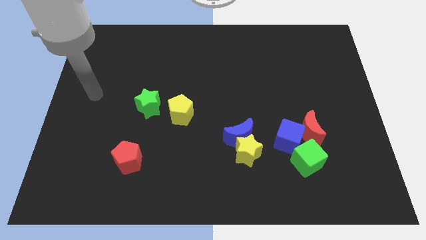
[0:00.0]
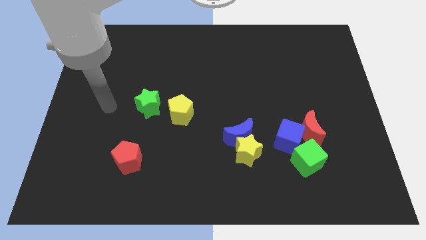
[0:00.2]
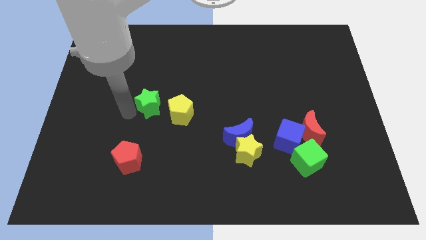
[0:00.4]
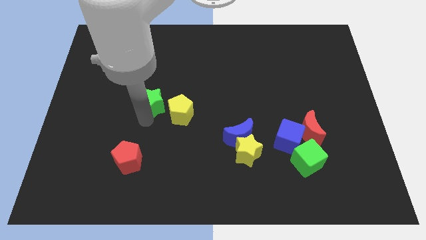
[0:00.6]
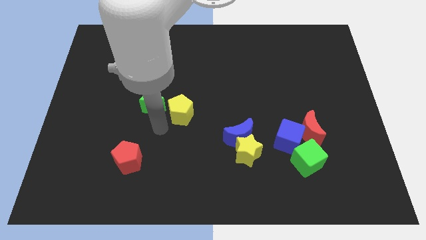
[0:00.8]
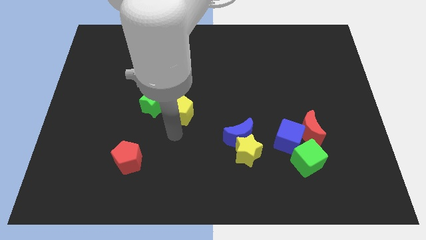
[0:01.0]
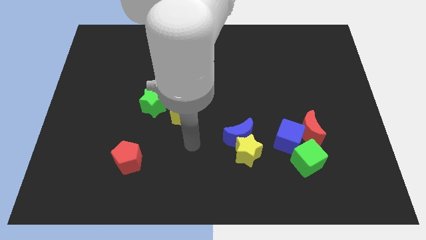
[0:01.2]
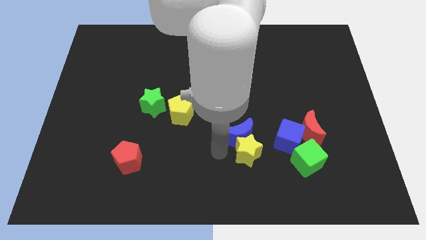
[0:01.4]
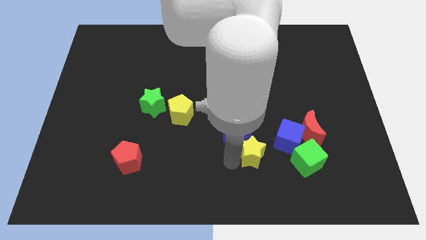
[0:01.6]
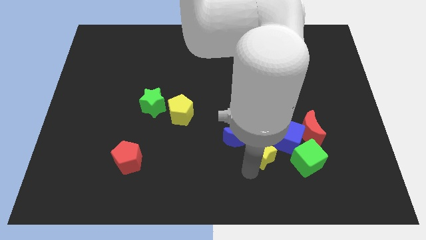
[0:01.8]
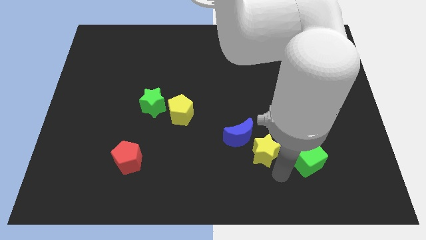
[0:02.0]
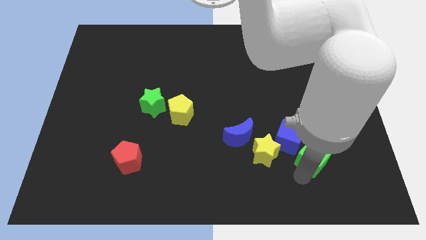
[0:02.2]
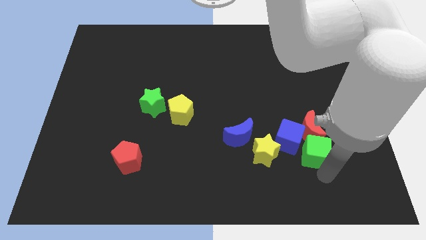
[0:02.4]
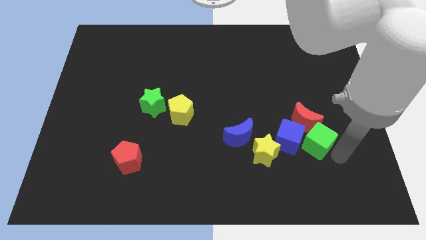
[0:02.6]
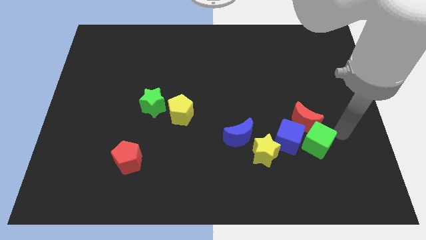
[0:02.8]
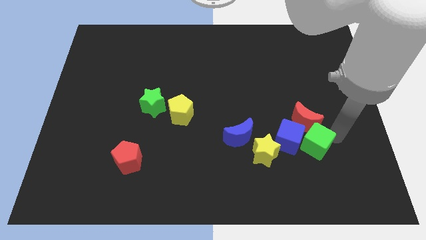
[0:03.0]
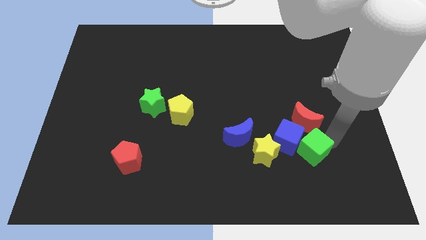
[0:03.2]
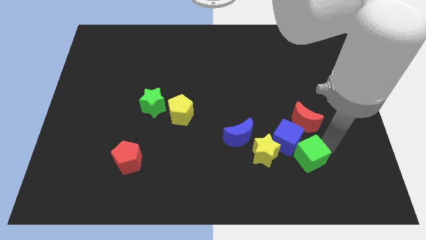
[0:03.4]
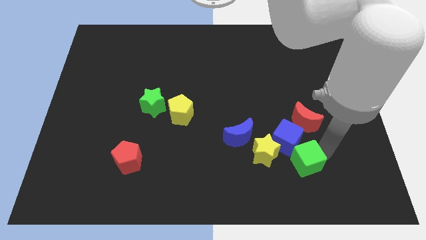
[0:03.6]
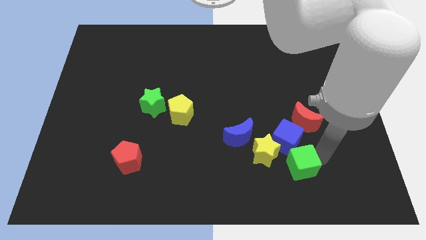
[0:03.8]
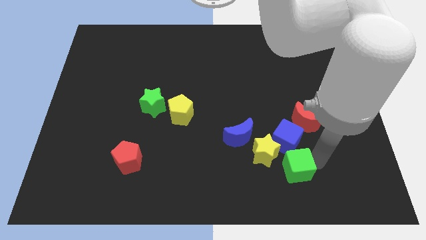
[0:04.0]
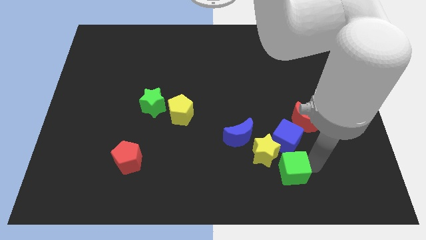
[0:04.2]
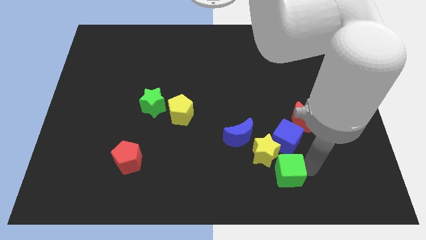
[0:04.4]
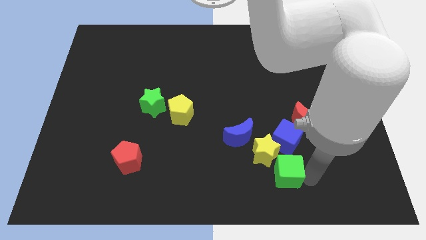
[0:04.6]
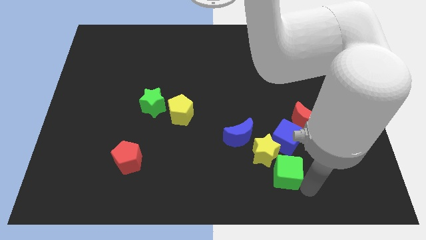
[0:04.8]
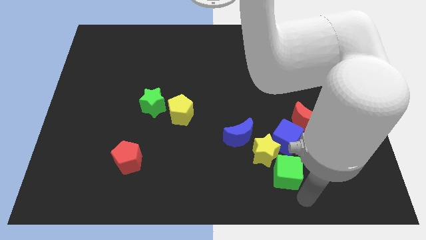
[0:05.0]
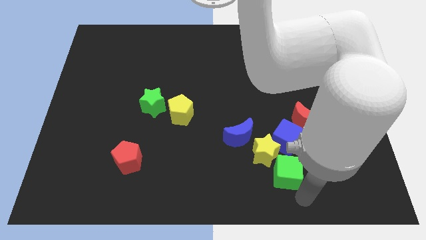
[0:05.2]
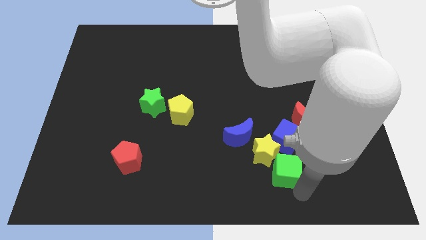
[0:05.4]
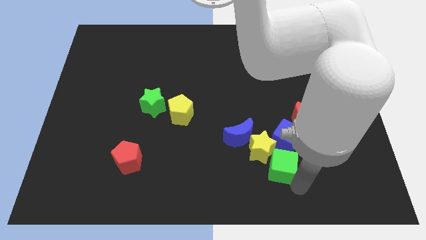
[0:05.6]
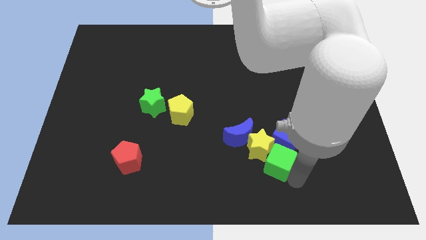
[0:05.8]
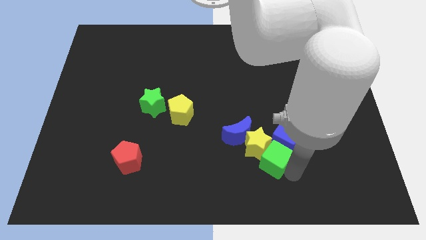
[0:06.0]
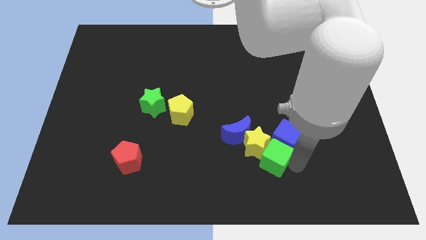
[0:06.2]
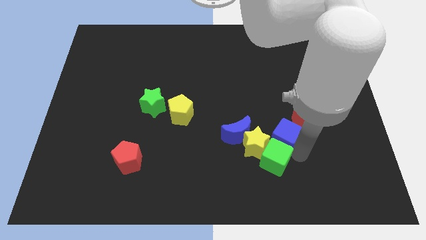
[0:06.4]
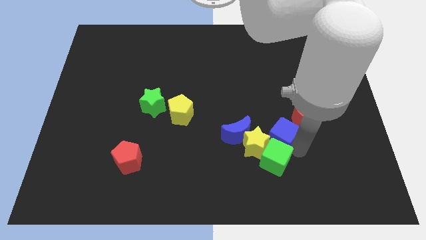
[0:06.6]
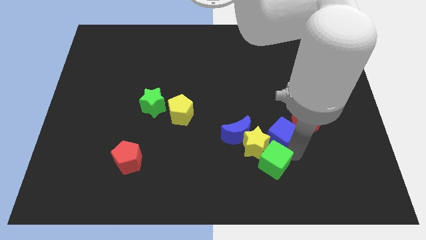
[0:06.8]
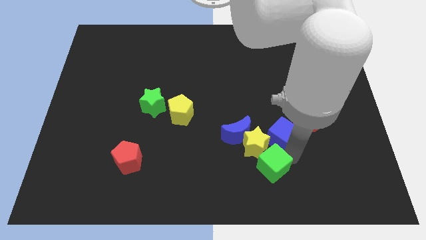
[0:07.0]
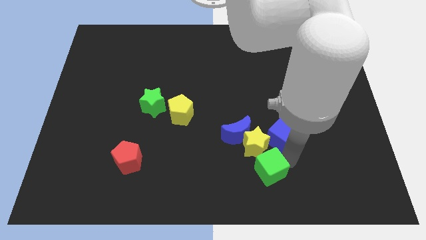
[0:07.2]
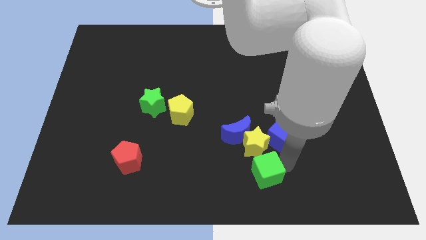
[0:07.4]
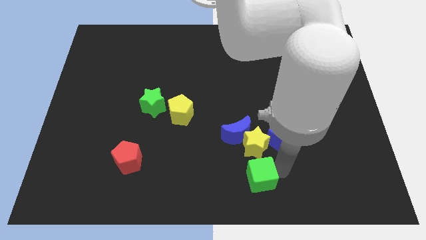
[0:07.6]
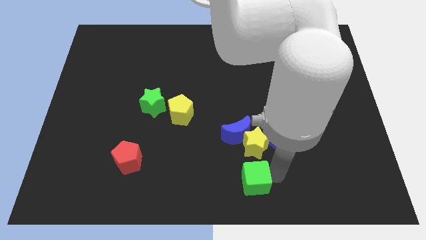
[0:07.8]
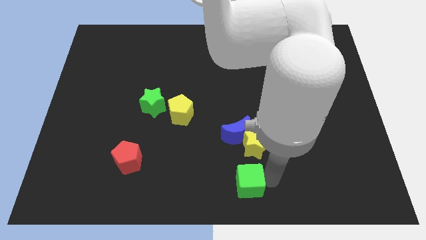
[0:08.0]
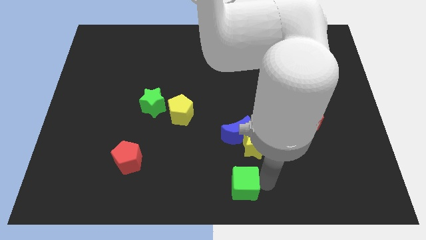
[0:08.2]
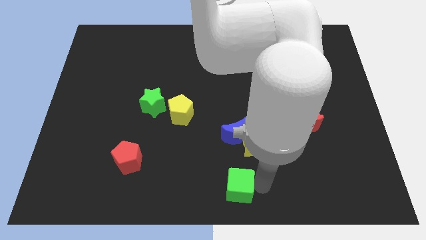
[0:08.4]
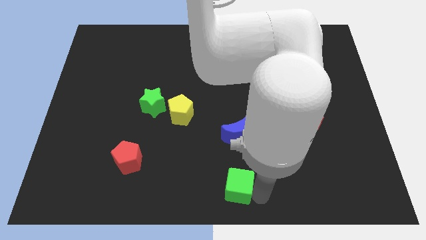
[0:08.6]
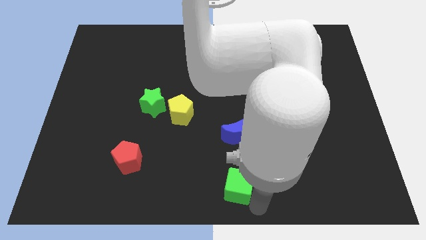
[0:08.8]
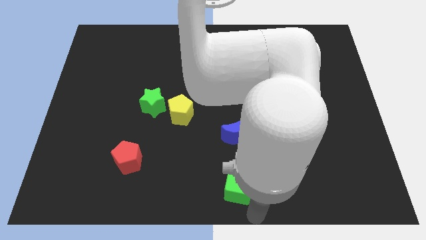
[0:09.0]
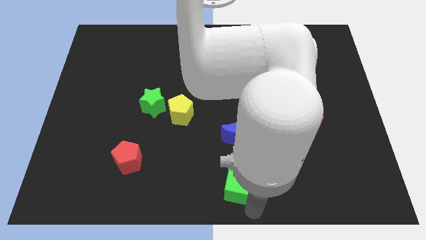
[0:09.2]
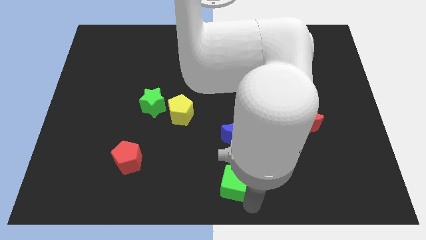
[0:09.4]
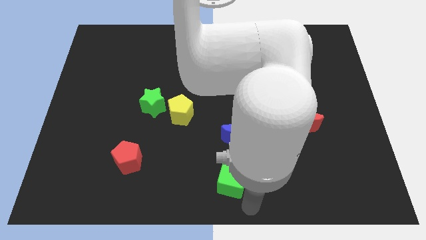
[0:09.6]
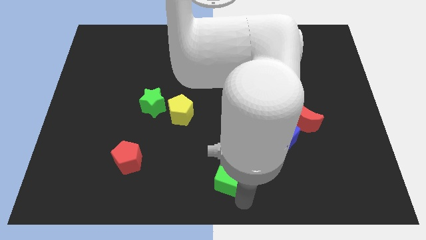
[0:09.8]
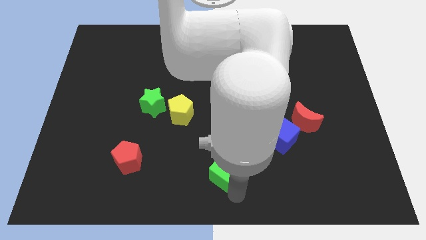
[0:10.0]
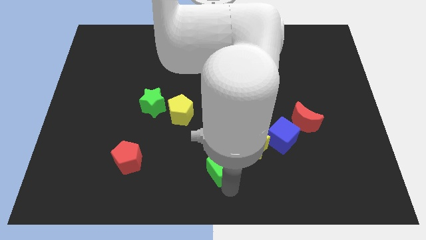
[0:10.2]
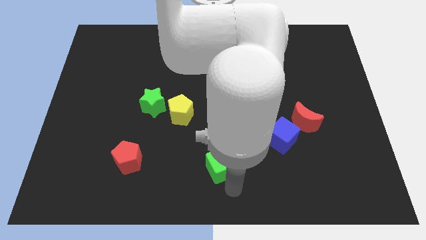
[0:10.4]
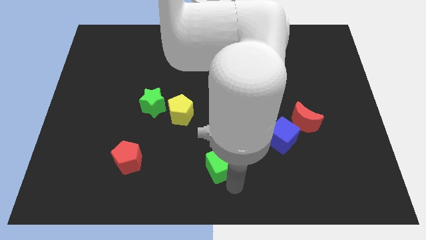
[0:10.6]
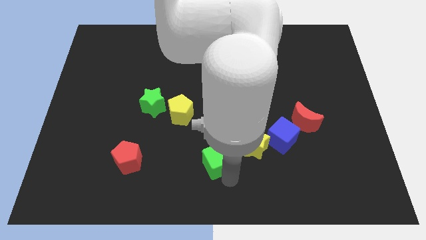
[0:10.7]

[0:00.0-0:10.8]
slide the green cube to the left side of the yellow star

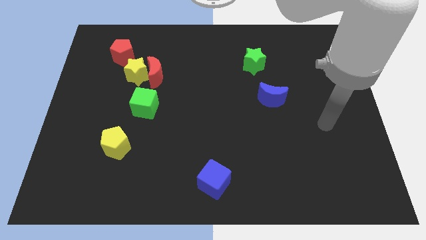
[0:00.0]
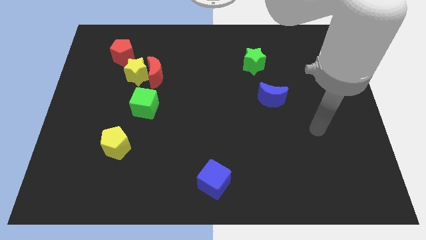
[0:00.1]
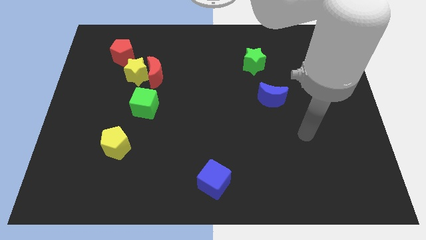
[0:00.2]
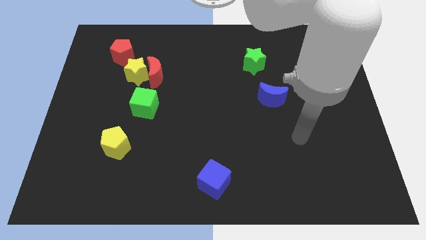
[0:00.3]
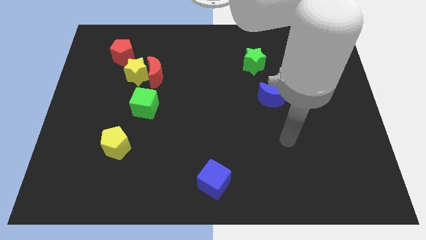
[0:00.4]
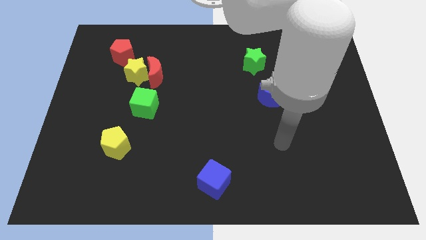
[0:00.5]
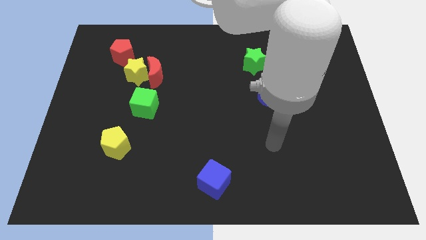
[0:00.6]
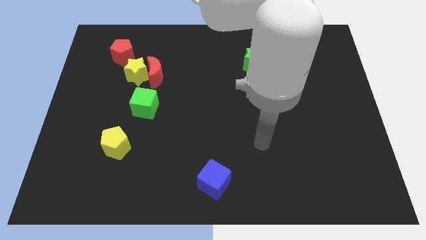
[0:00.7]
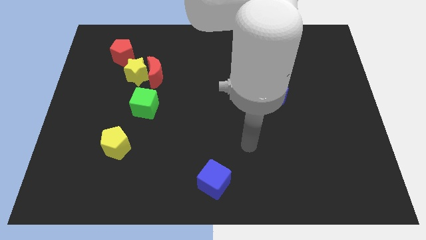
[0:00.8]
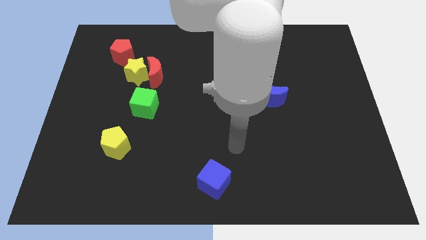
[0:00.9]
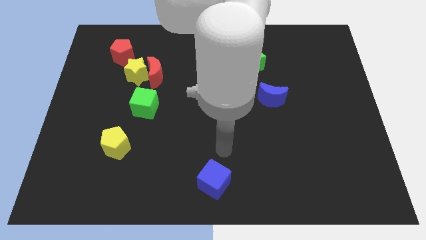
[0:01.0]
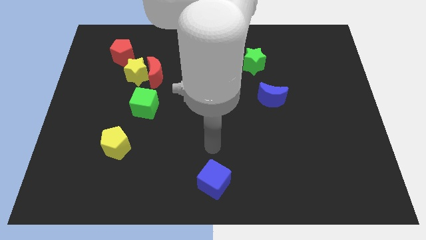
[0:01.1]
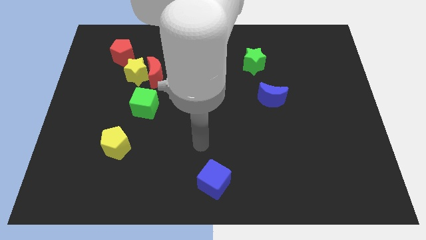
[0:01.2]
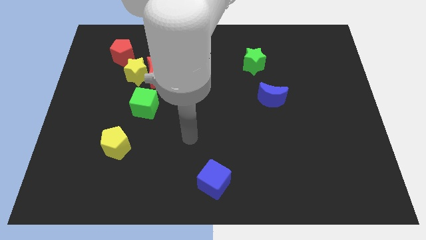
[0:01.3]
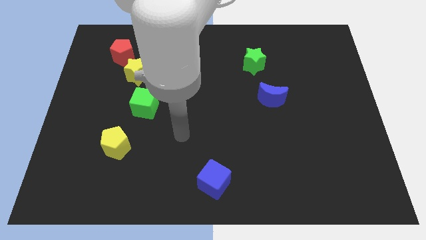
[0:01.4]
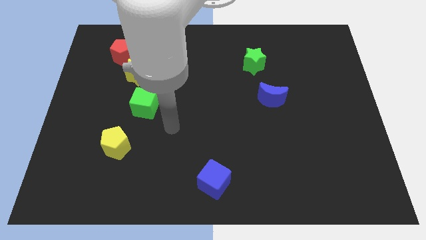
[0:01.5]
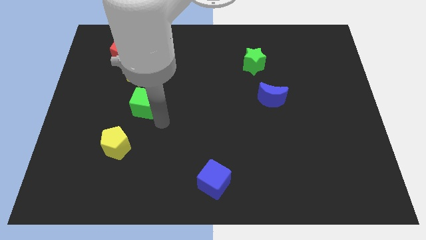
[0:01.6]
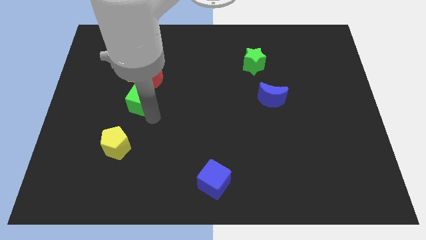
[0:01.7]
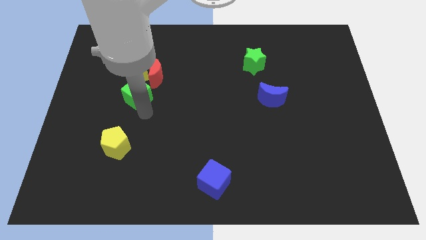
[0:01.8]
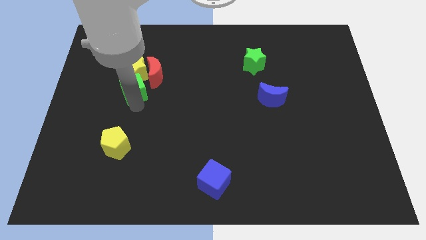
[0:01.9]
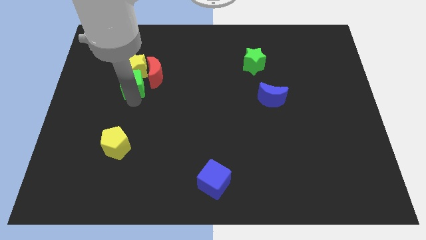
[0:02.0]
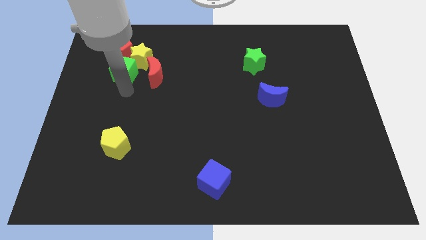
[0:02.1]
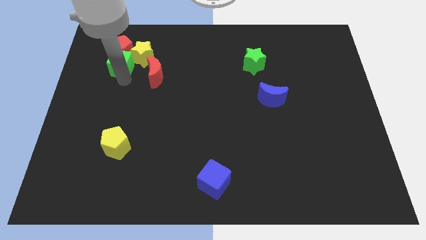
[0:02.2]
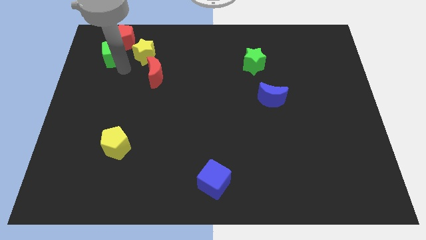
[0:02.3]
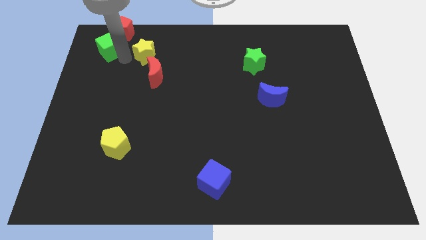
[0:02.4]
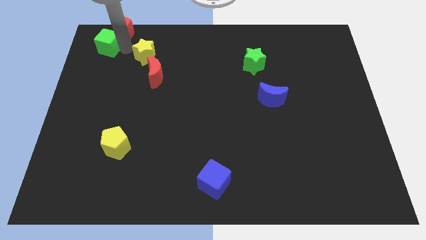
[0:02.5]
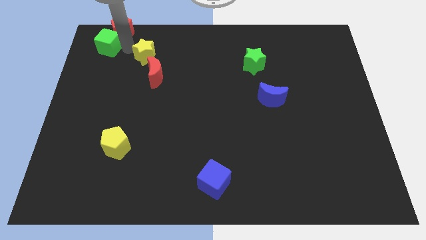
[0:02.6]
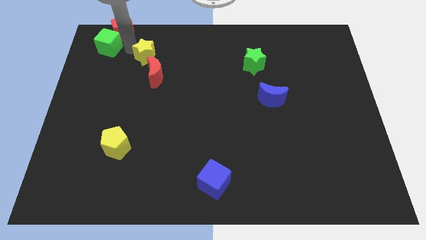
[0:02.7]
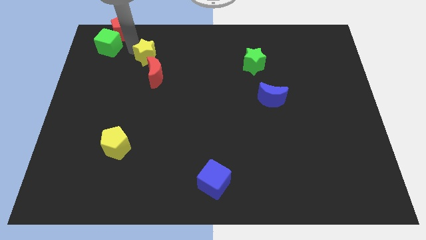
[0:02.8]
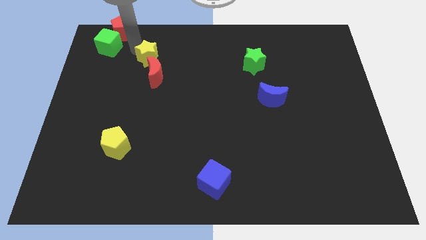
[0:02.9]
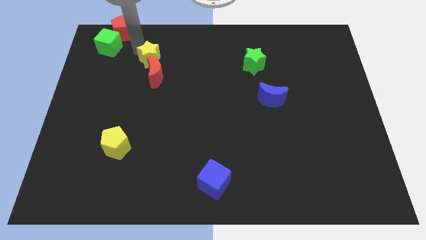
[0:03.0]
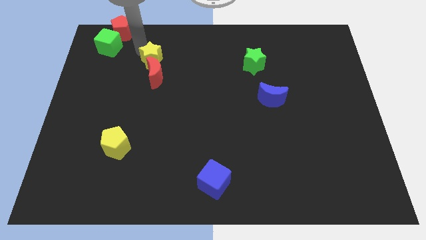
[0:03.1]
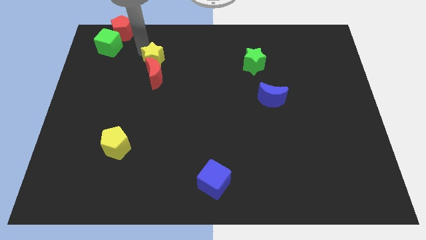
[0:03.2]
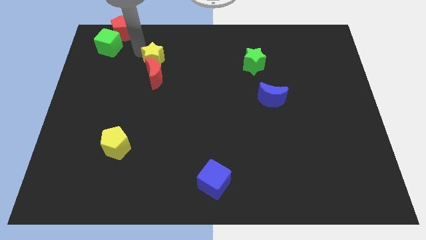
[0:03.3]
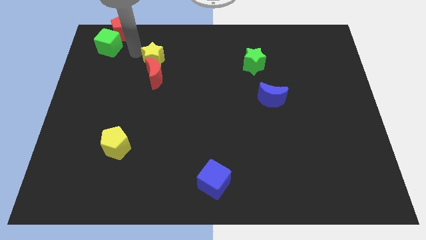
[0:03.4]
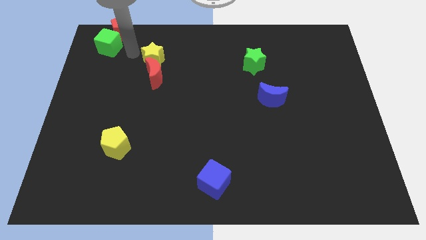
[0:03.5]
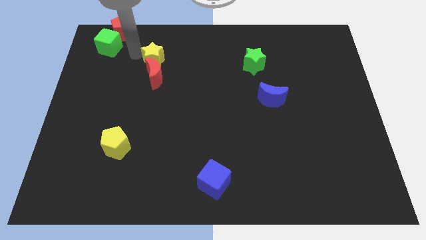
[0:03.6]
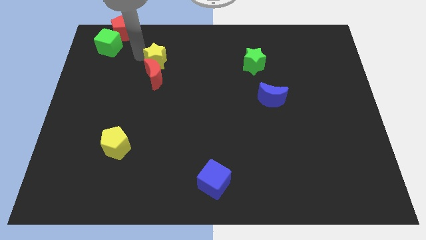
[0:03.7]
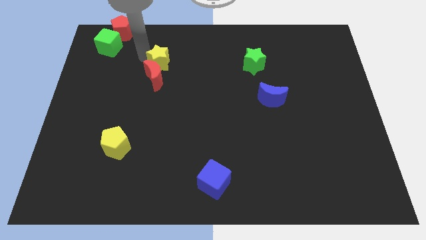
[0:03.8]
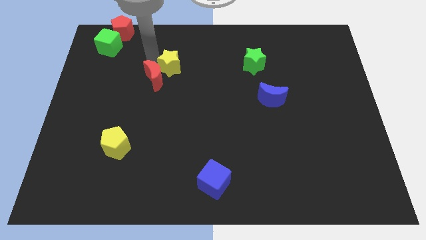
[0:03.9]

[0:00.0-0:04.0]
put the yellow star to the right of the red moon
